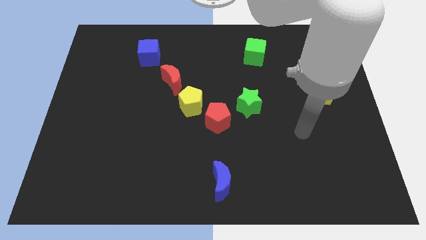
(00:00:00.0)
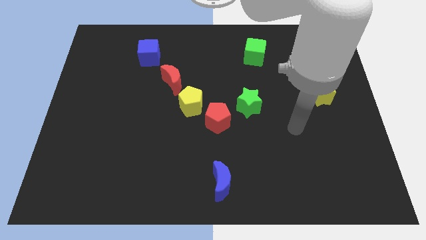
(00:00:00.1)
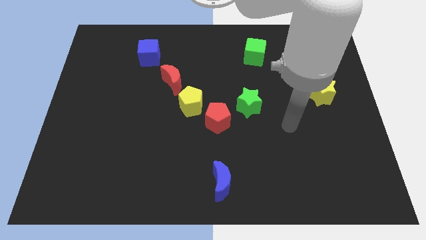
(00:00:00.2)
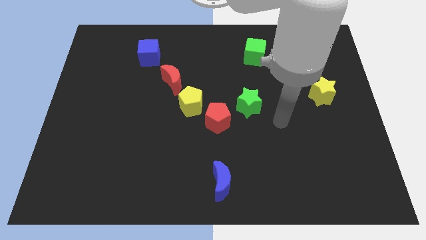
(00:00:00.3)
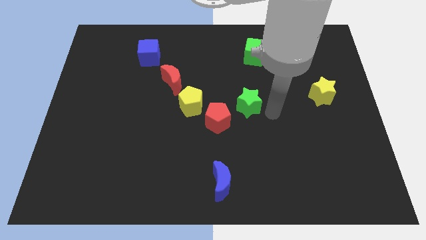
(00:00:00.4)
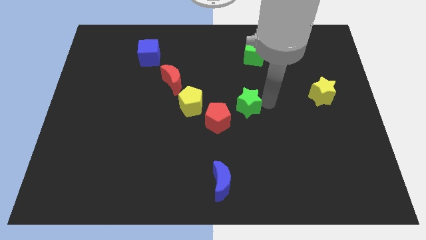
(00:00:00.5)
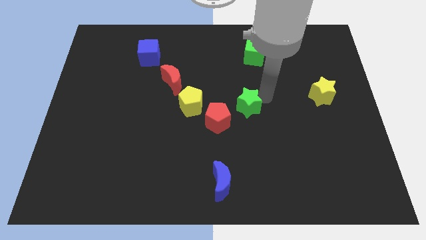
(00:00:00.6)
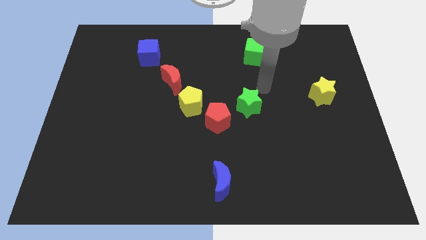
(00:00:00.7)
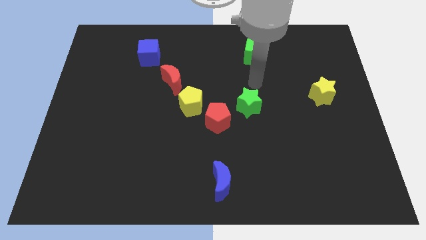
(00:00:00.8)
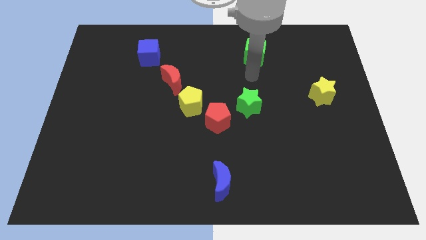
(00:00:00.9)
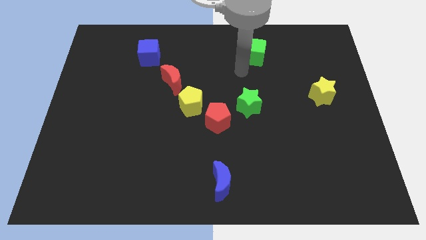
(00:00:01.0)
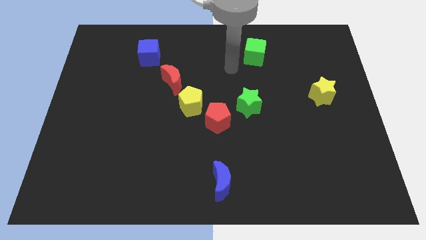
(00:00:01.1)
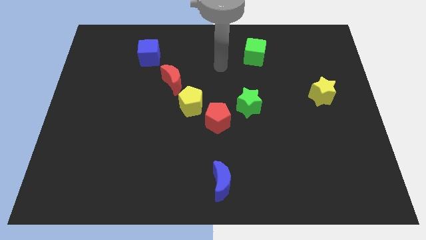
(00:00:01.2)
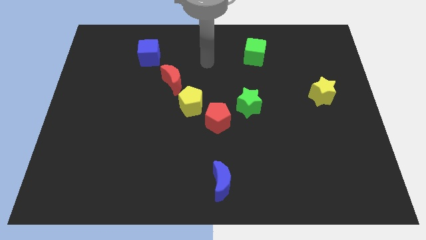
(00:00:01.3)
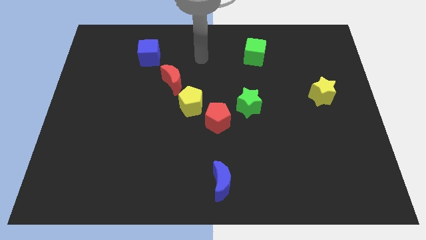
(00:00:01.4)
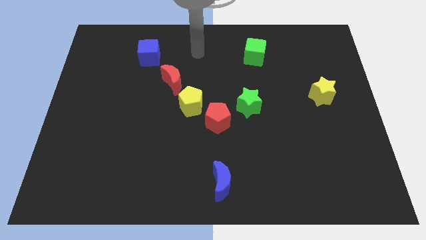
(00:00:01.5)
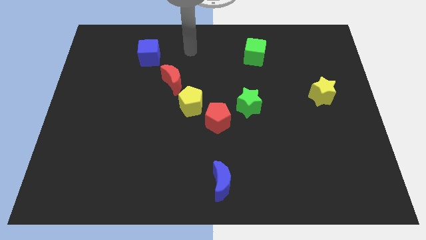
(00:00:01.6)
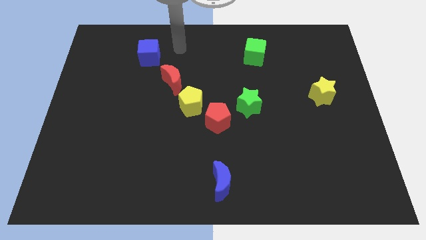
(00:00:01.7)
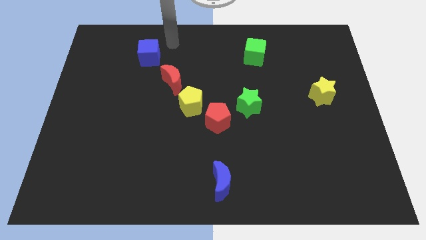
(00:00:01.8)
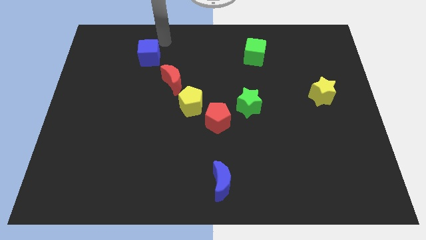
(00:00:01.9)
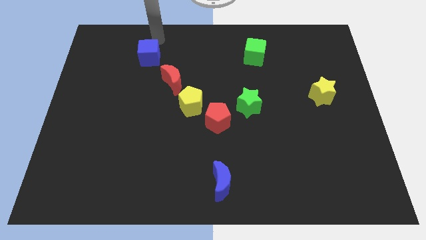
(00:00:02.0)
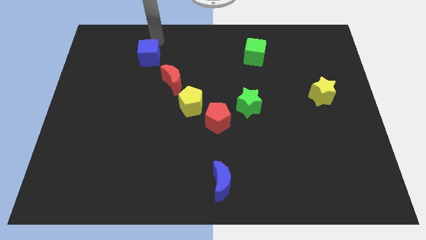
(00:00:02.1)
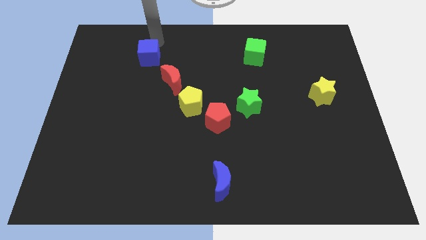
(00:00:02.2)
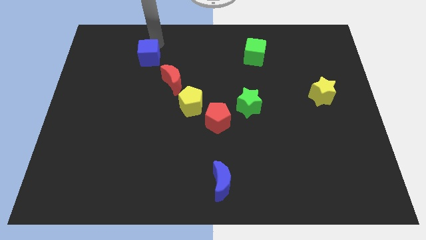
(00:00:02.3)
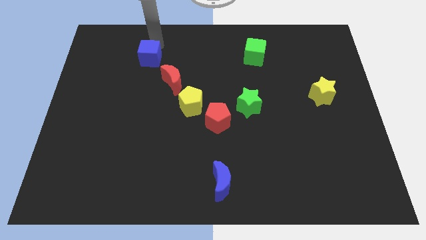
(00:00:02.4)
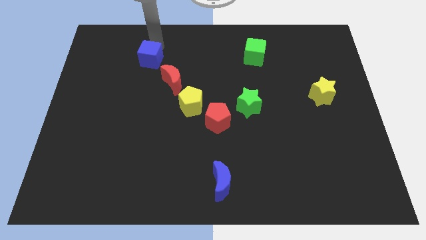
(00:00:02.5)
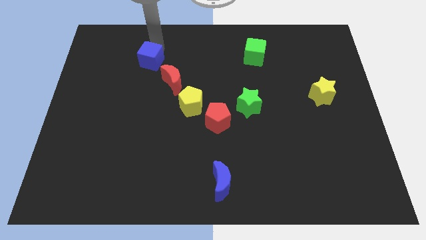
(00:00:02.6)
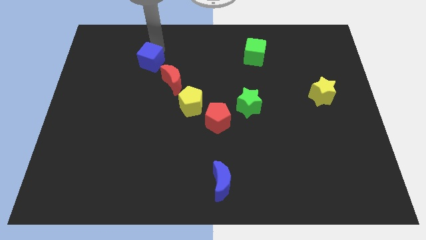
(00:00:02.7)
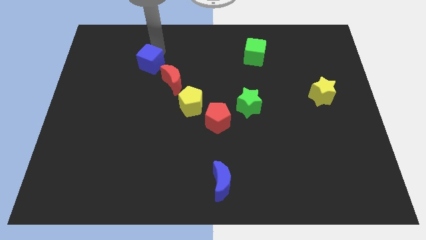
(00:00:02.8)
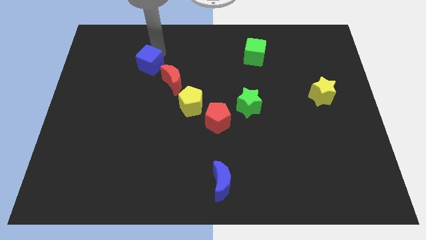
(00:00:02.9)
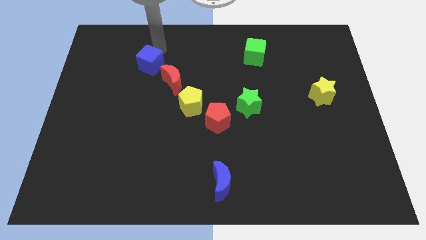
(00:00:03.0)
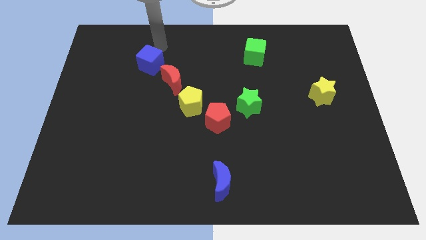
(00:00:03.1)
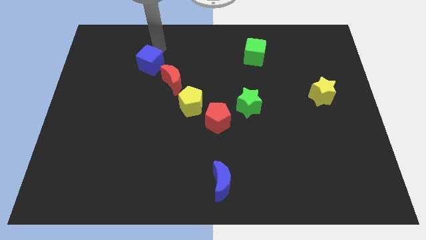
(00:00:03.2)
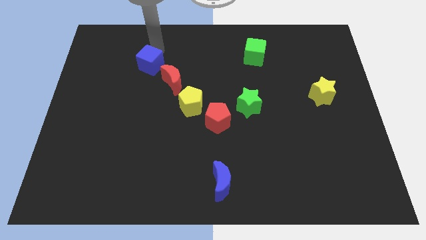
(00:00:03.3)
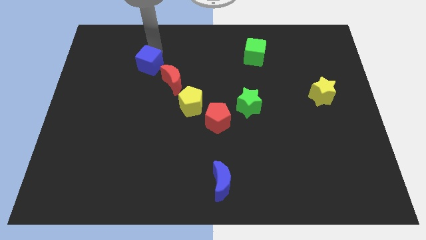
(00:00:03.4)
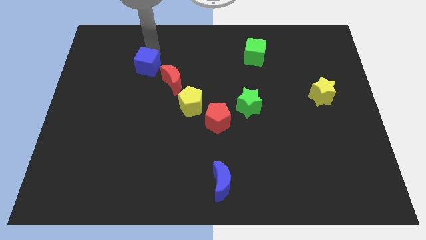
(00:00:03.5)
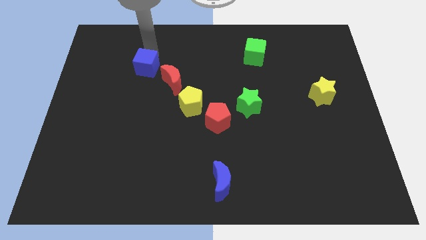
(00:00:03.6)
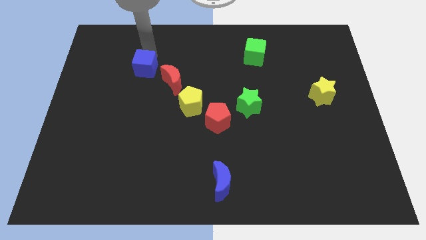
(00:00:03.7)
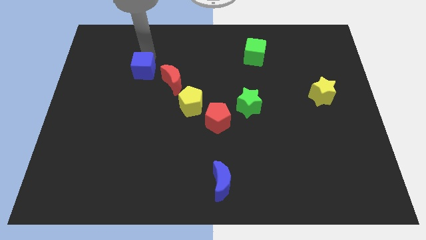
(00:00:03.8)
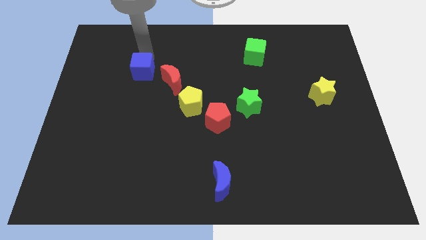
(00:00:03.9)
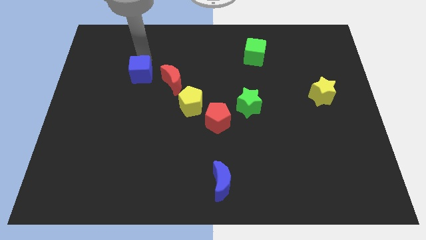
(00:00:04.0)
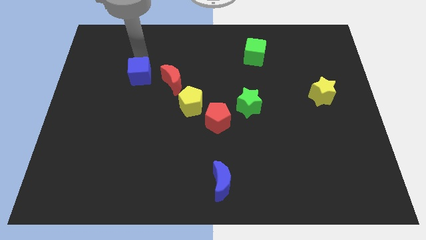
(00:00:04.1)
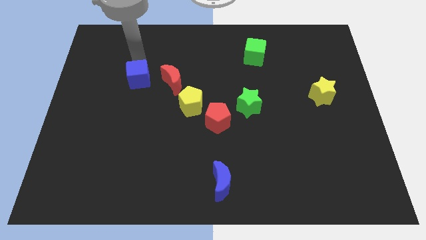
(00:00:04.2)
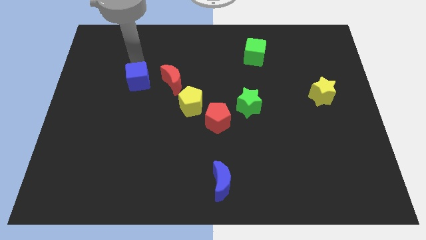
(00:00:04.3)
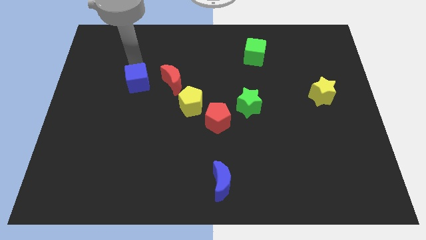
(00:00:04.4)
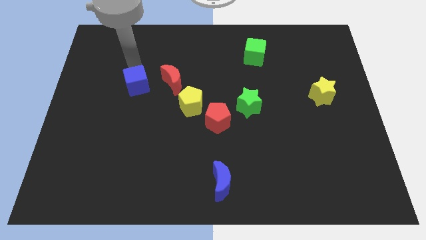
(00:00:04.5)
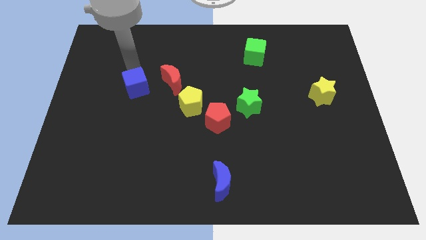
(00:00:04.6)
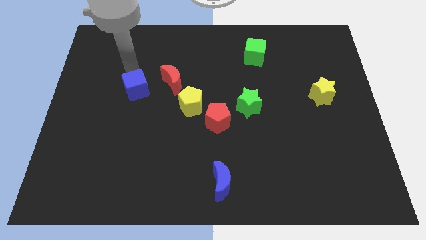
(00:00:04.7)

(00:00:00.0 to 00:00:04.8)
move the blue cube diagonally down and to the left of the red moon

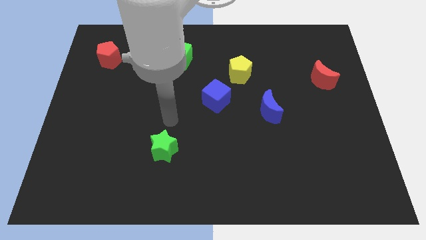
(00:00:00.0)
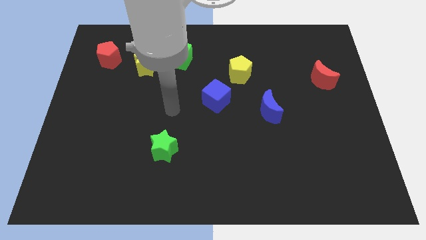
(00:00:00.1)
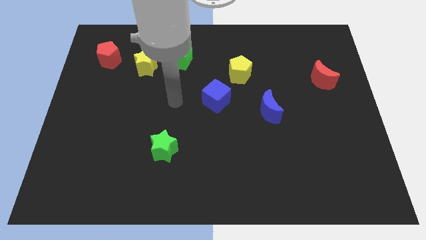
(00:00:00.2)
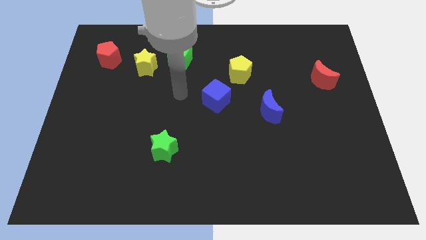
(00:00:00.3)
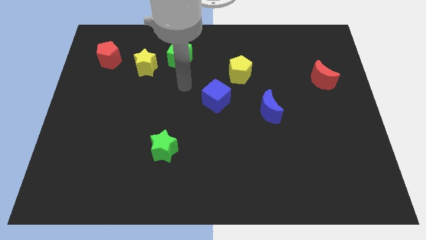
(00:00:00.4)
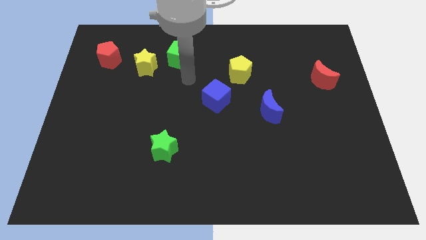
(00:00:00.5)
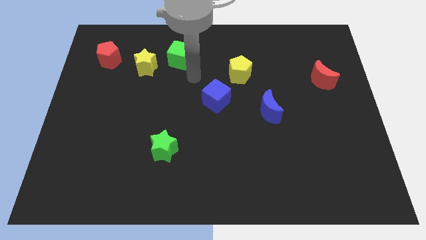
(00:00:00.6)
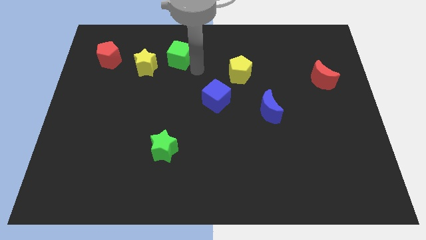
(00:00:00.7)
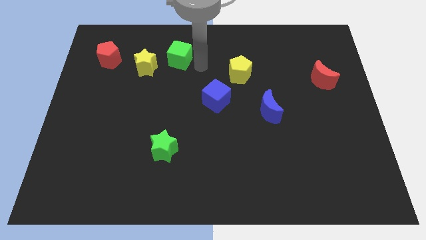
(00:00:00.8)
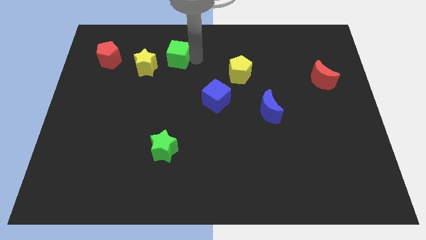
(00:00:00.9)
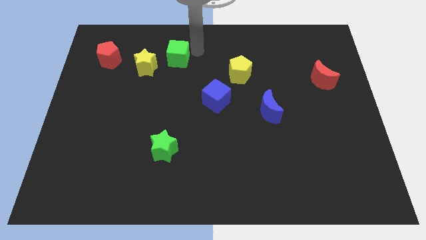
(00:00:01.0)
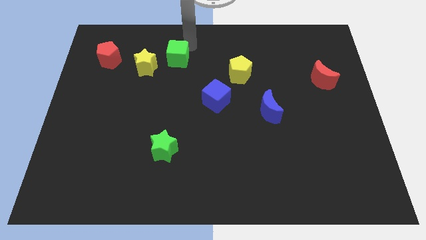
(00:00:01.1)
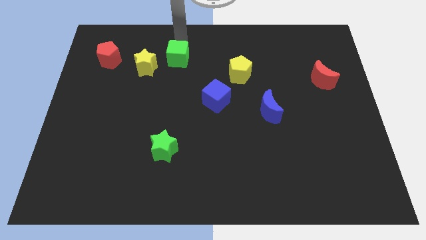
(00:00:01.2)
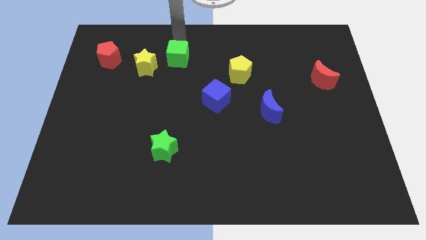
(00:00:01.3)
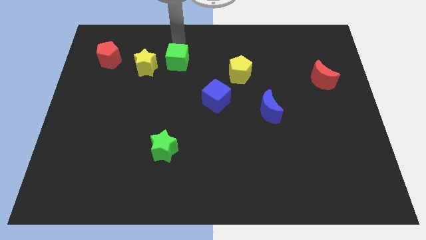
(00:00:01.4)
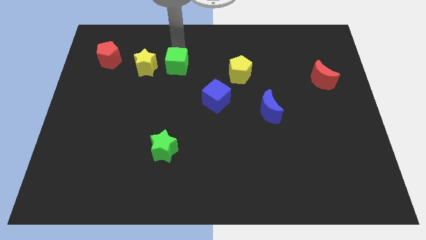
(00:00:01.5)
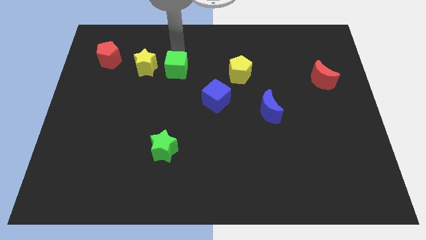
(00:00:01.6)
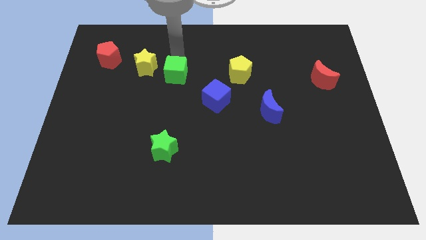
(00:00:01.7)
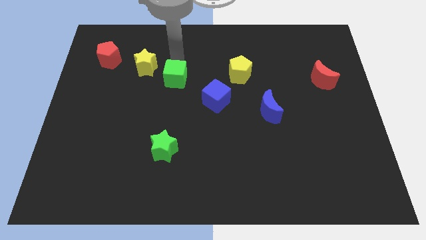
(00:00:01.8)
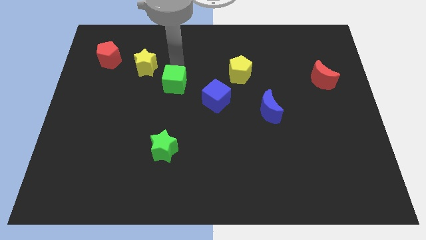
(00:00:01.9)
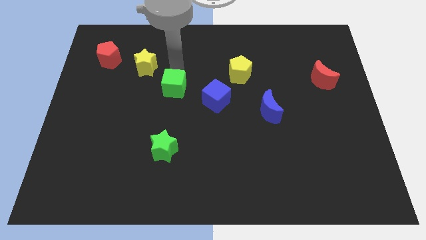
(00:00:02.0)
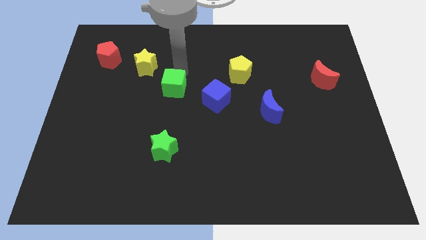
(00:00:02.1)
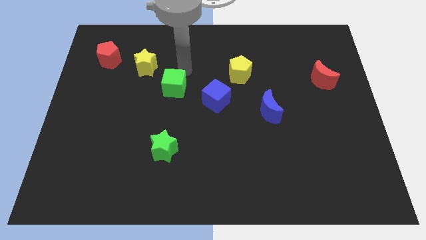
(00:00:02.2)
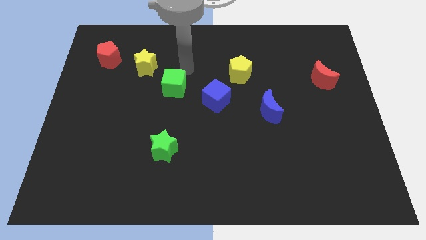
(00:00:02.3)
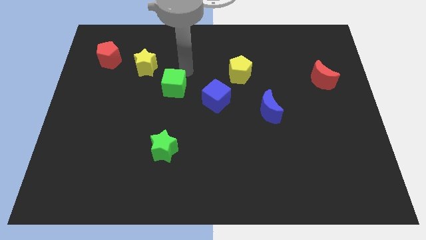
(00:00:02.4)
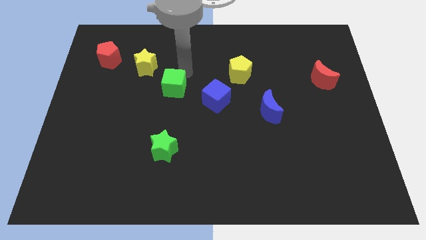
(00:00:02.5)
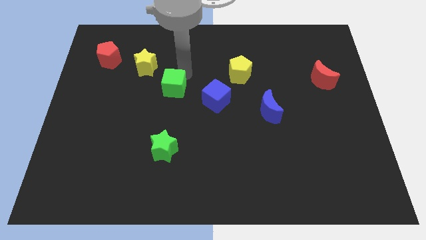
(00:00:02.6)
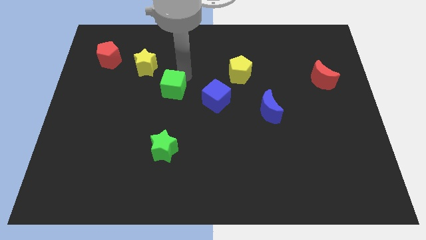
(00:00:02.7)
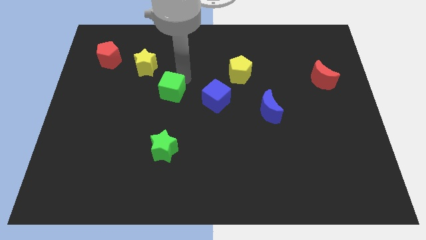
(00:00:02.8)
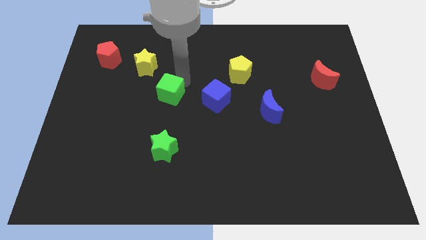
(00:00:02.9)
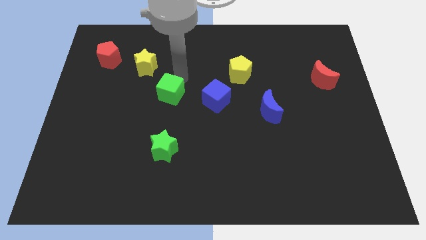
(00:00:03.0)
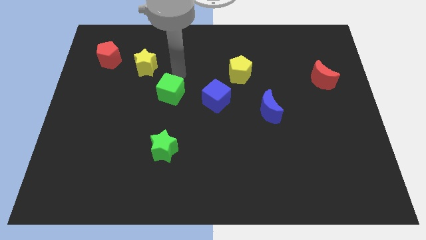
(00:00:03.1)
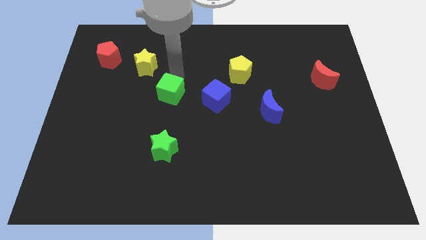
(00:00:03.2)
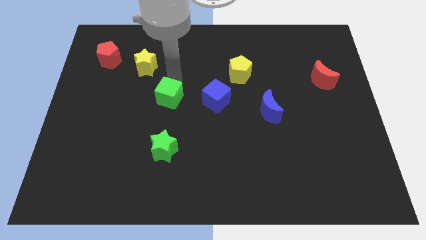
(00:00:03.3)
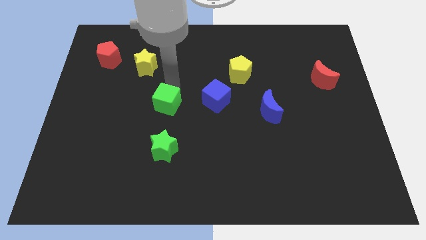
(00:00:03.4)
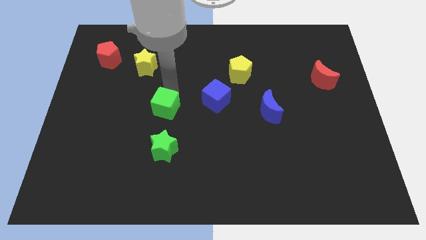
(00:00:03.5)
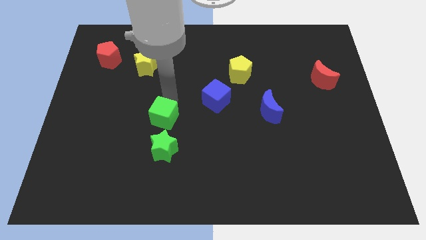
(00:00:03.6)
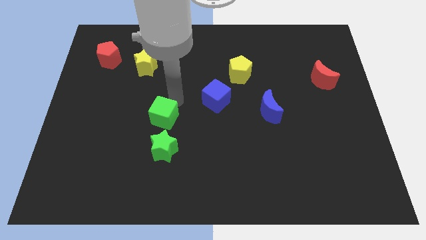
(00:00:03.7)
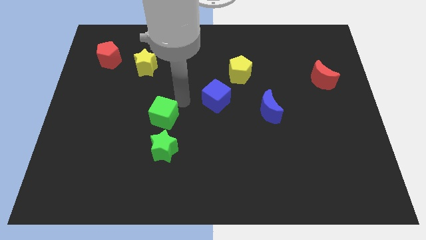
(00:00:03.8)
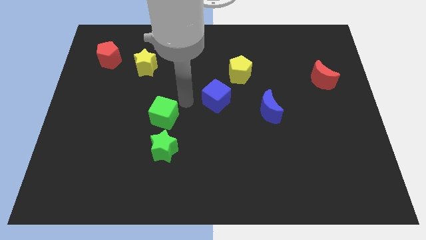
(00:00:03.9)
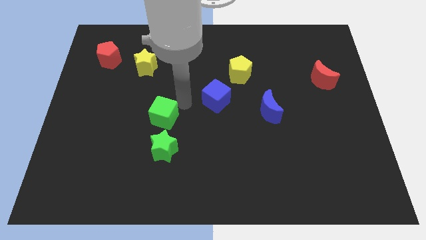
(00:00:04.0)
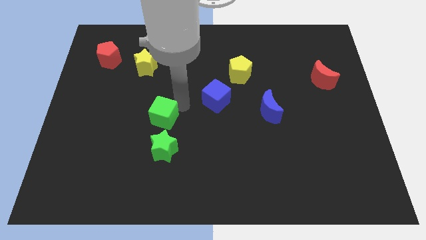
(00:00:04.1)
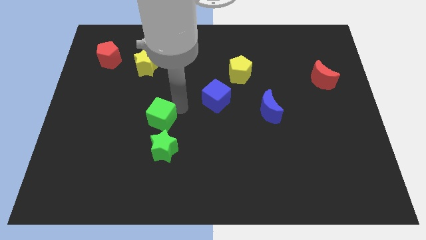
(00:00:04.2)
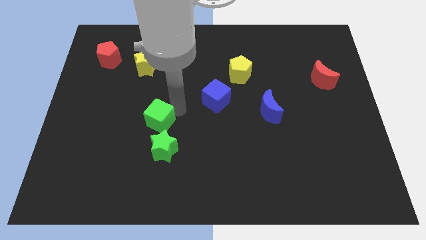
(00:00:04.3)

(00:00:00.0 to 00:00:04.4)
slide the green cube diagonally up and to the left of the green star
